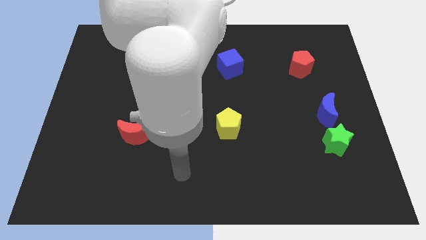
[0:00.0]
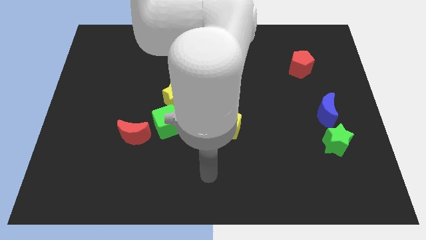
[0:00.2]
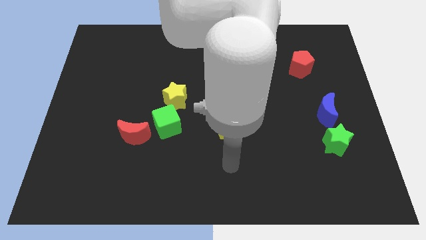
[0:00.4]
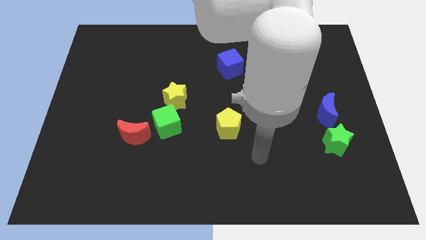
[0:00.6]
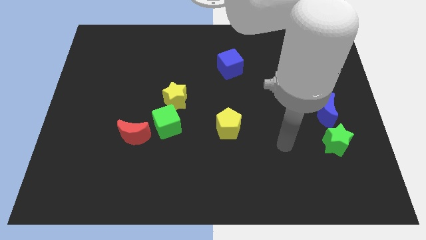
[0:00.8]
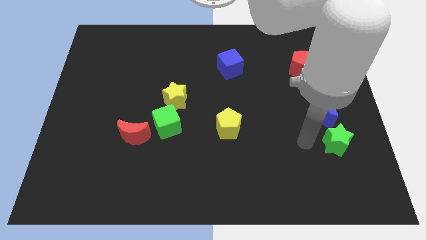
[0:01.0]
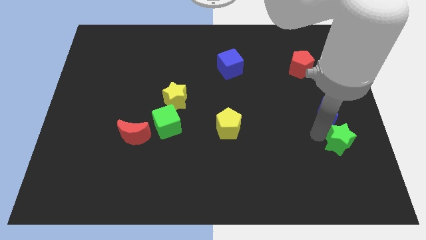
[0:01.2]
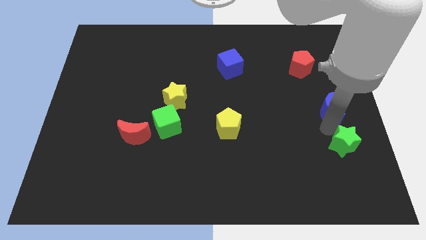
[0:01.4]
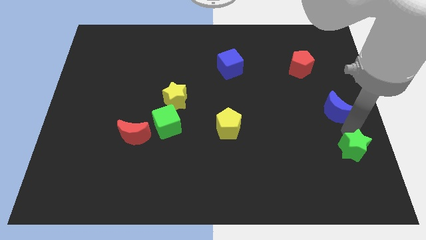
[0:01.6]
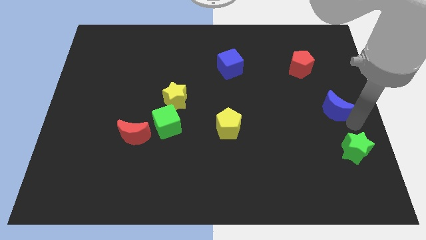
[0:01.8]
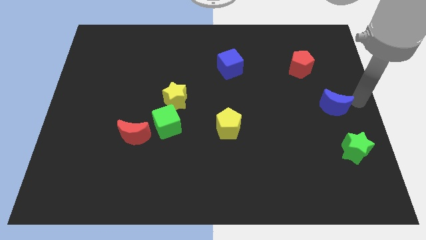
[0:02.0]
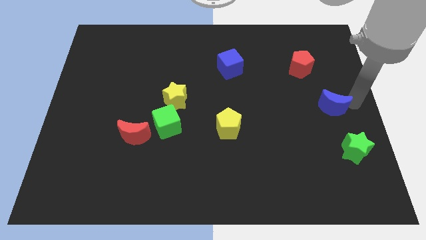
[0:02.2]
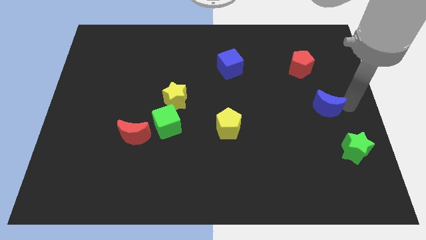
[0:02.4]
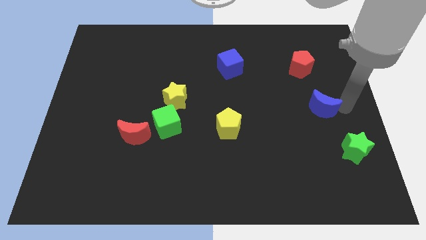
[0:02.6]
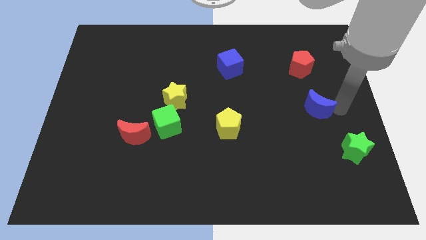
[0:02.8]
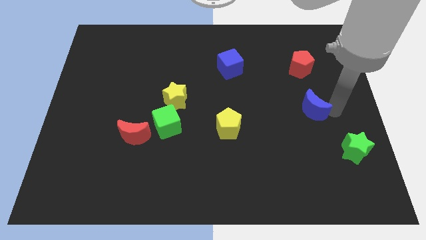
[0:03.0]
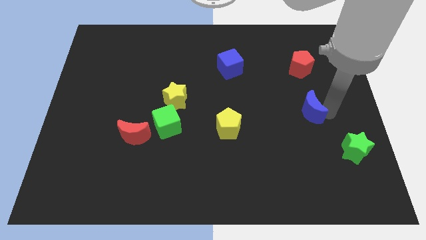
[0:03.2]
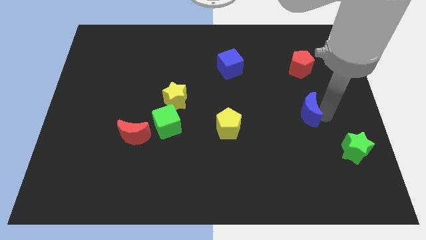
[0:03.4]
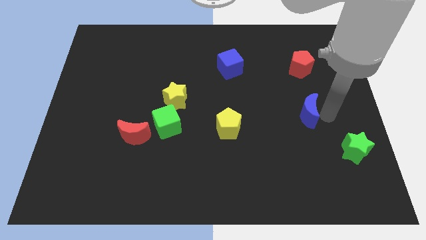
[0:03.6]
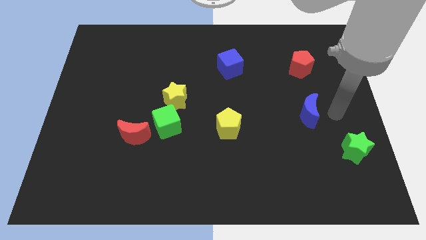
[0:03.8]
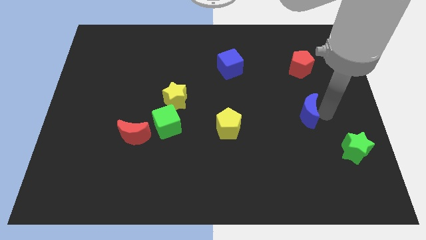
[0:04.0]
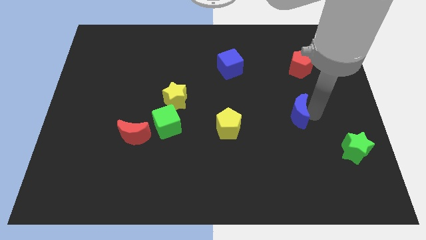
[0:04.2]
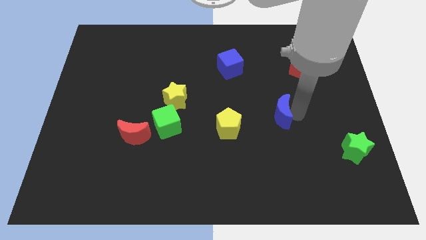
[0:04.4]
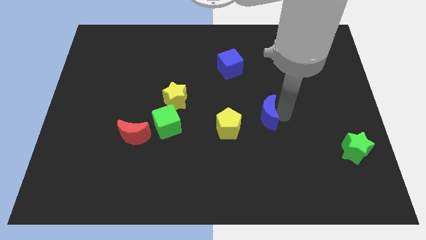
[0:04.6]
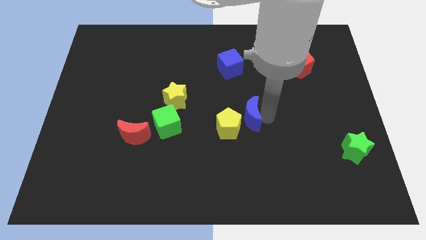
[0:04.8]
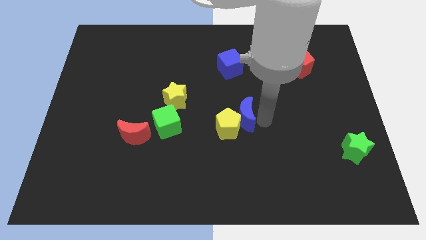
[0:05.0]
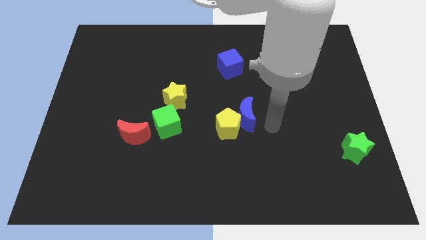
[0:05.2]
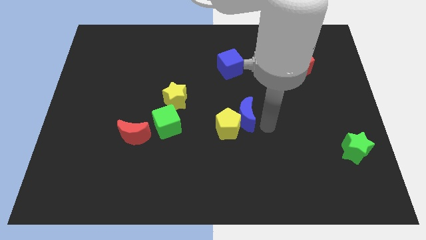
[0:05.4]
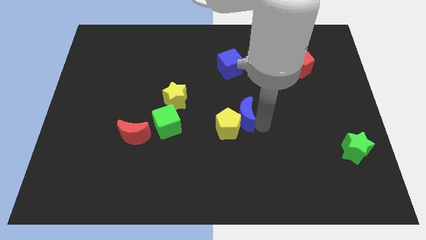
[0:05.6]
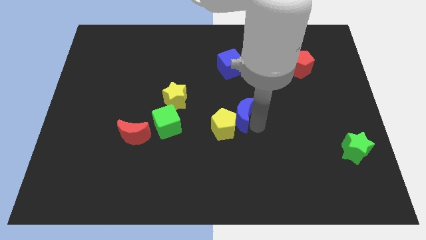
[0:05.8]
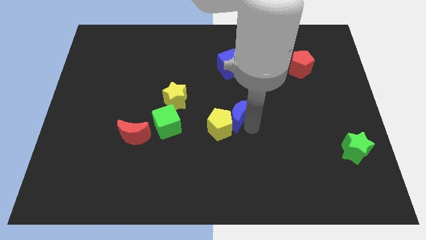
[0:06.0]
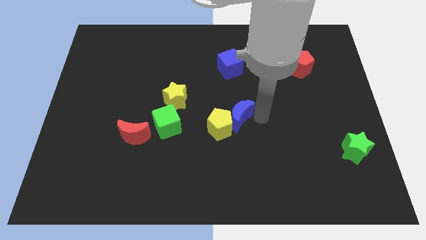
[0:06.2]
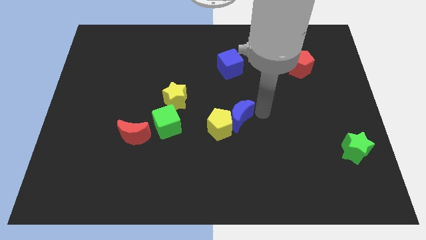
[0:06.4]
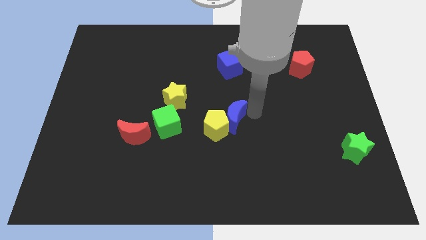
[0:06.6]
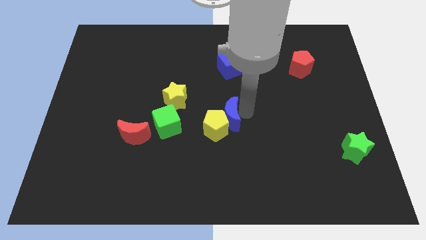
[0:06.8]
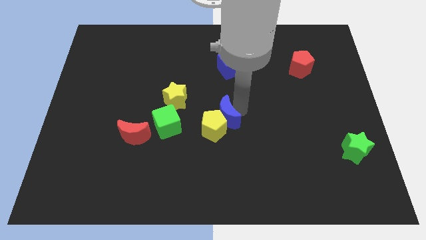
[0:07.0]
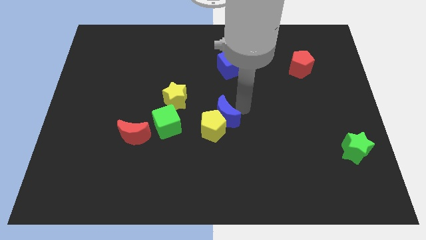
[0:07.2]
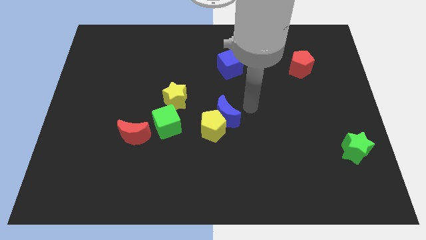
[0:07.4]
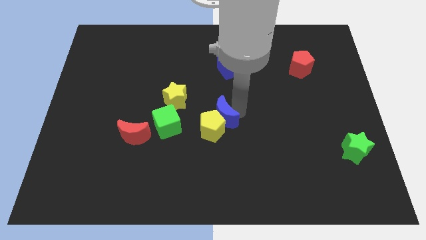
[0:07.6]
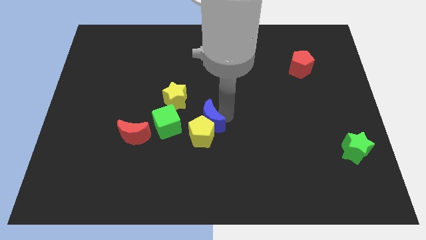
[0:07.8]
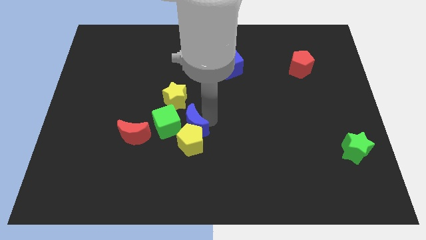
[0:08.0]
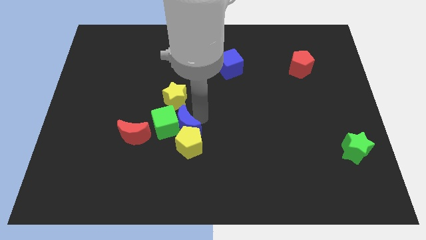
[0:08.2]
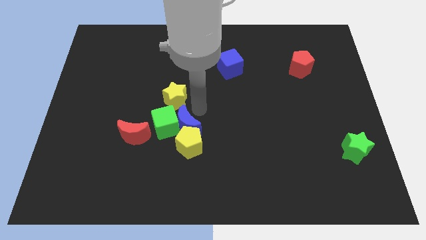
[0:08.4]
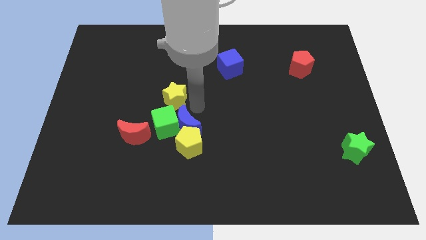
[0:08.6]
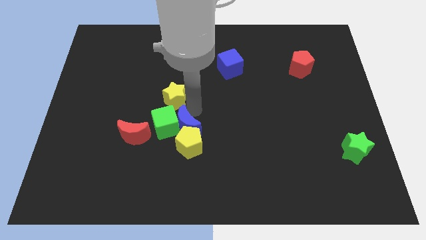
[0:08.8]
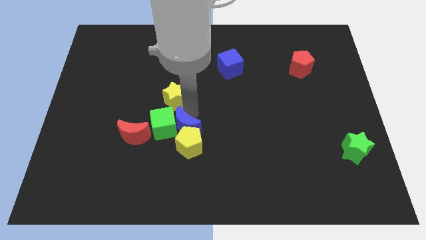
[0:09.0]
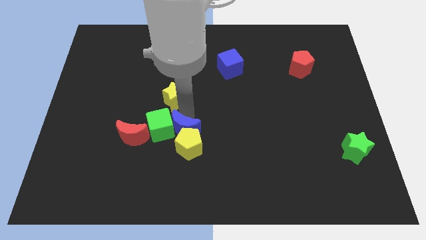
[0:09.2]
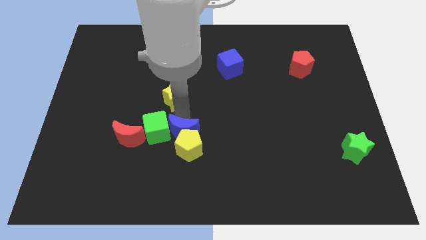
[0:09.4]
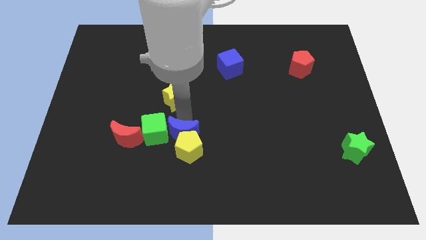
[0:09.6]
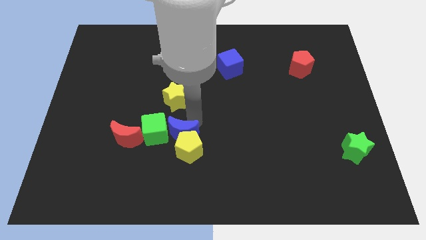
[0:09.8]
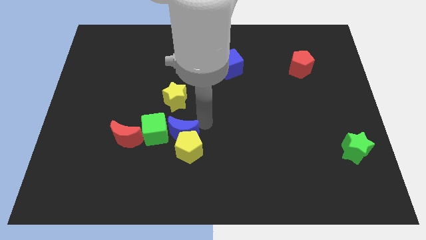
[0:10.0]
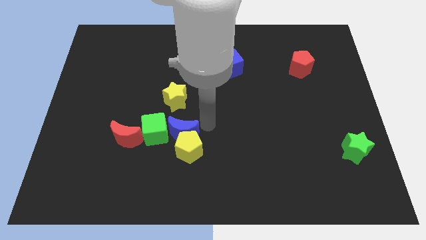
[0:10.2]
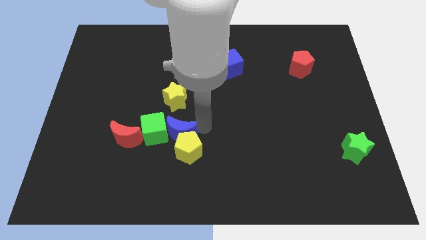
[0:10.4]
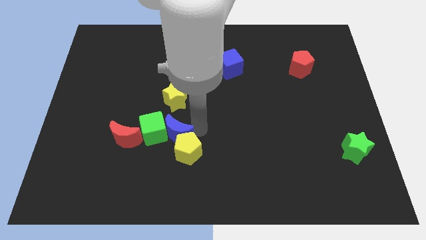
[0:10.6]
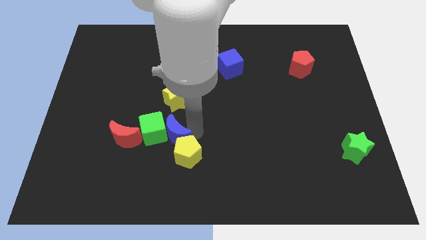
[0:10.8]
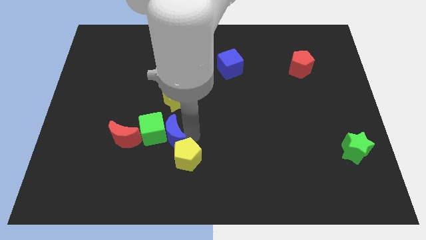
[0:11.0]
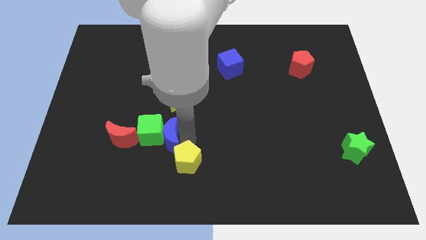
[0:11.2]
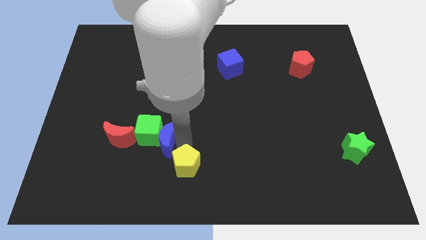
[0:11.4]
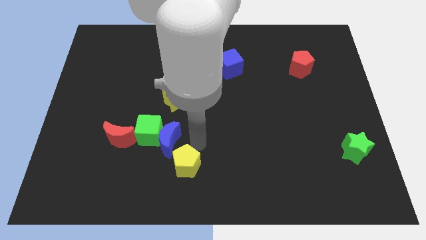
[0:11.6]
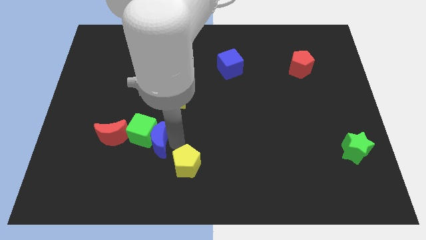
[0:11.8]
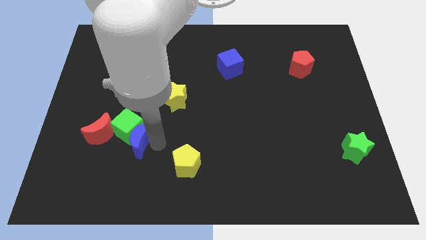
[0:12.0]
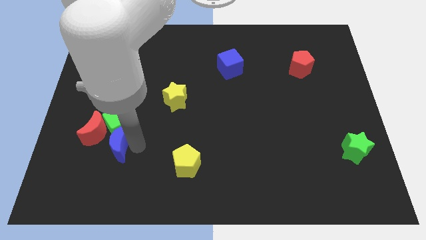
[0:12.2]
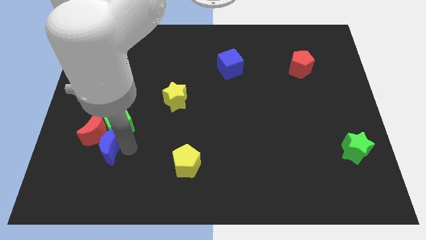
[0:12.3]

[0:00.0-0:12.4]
push the blue moon to the red moon
